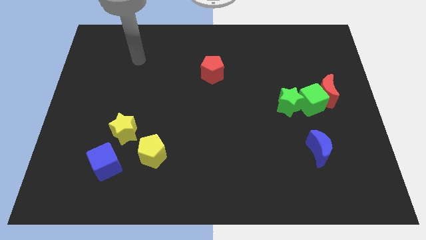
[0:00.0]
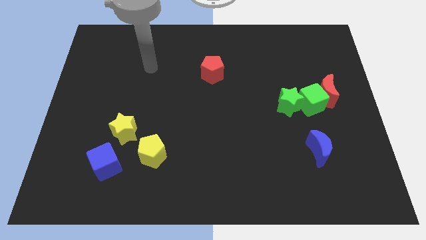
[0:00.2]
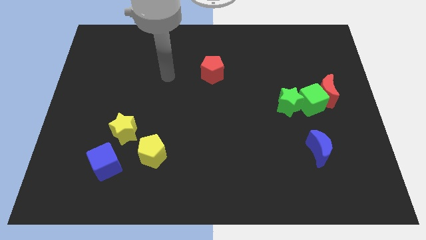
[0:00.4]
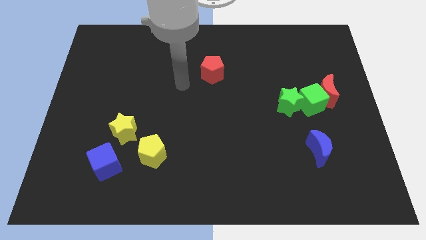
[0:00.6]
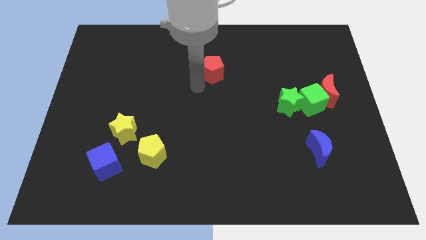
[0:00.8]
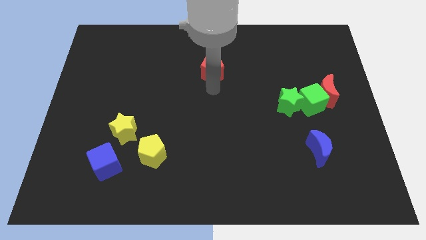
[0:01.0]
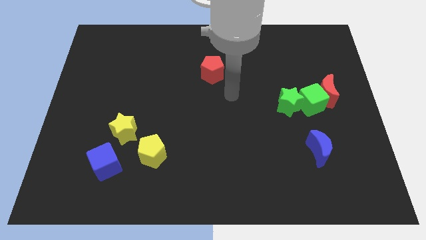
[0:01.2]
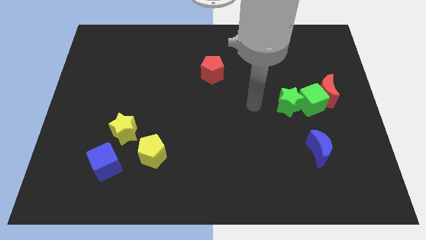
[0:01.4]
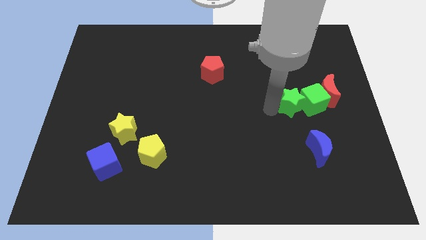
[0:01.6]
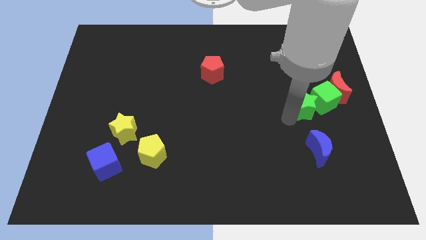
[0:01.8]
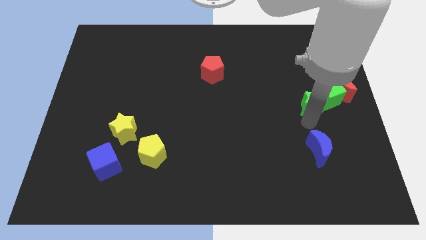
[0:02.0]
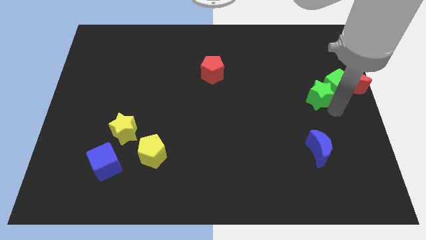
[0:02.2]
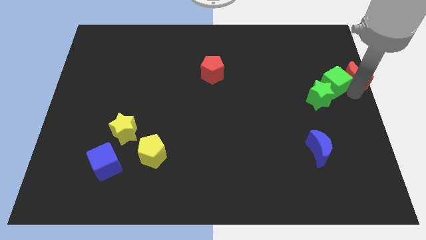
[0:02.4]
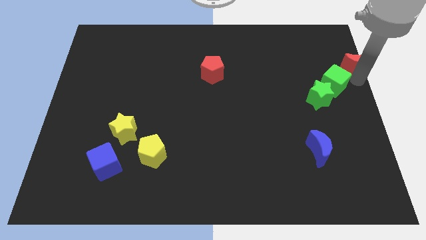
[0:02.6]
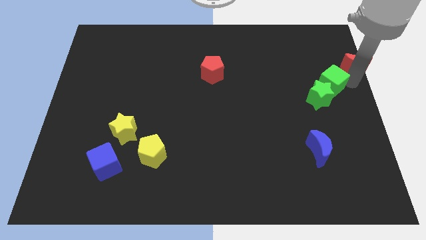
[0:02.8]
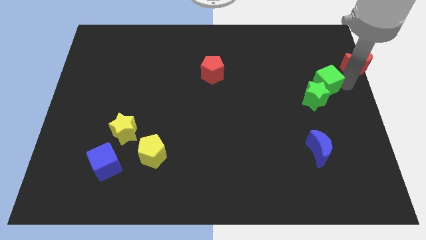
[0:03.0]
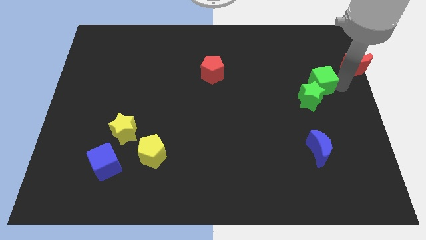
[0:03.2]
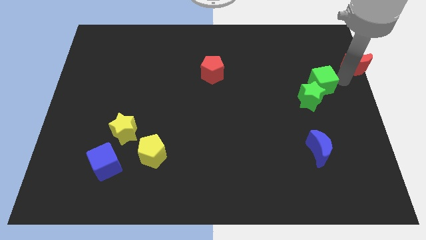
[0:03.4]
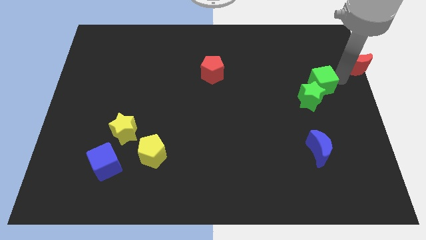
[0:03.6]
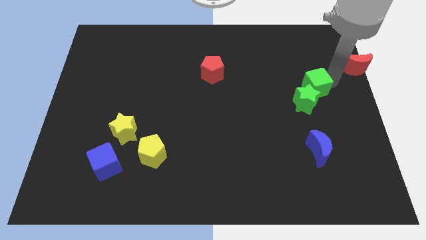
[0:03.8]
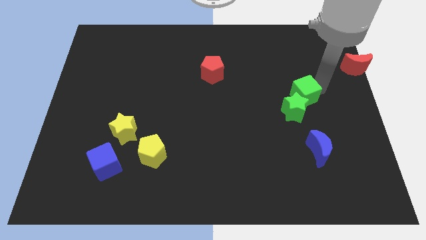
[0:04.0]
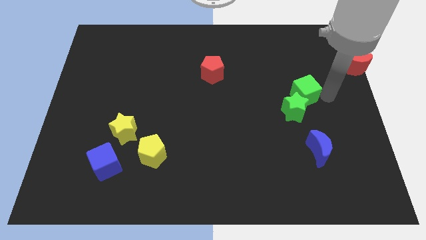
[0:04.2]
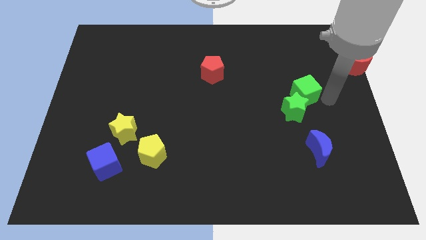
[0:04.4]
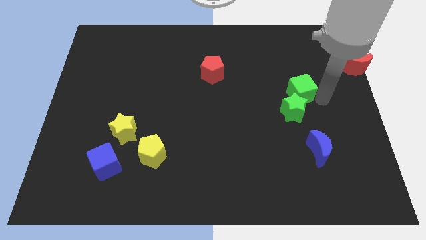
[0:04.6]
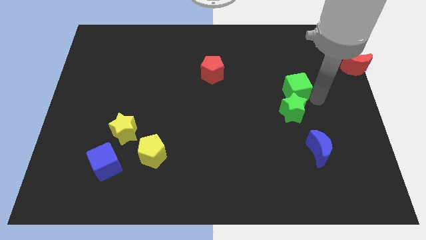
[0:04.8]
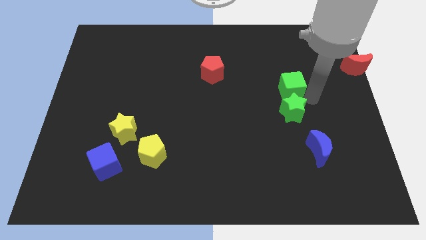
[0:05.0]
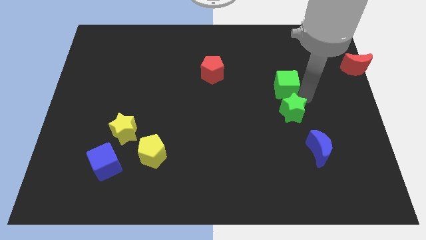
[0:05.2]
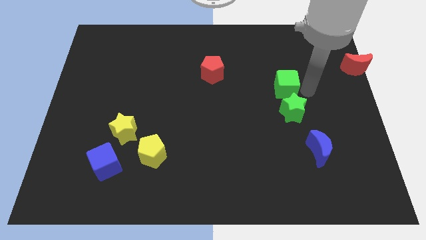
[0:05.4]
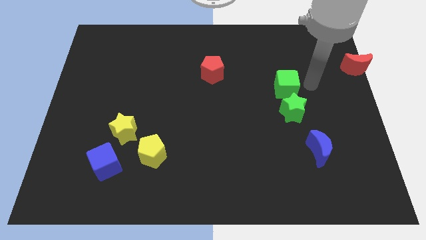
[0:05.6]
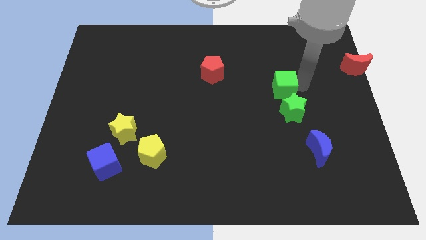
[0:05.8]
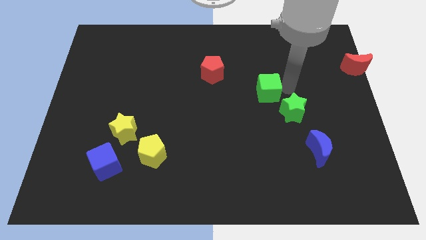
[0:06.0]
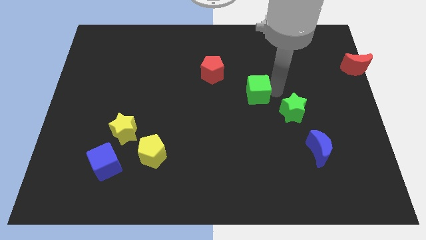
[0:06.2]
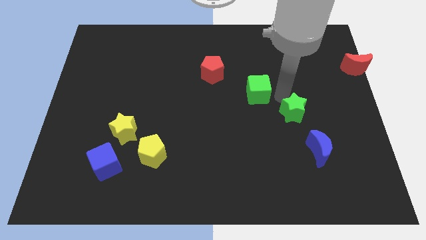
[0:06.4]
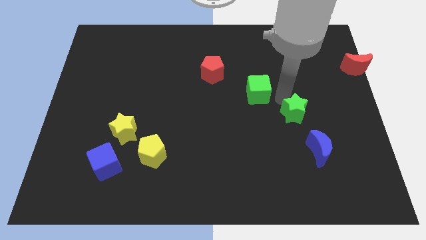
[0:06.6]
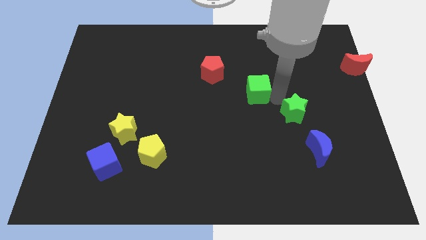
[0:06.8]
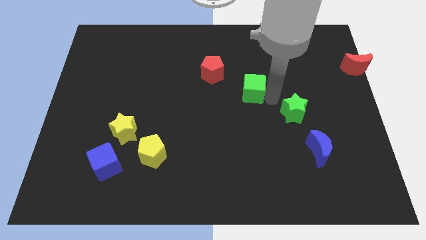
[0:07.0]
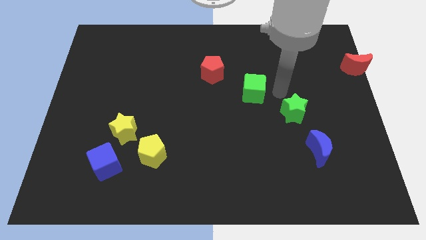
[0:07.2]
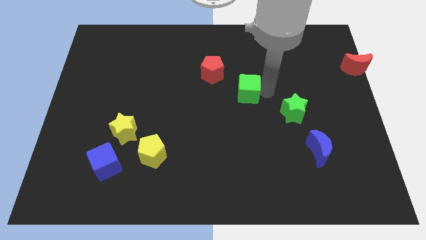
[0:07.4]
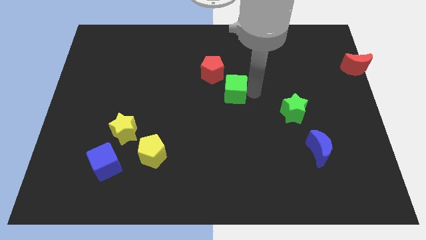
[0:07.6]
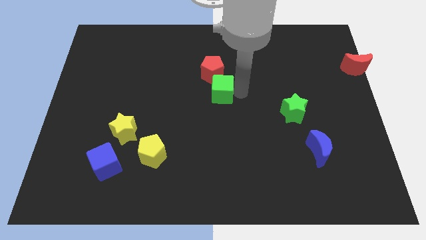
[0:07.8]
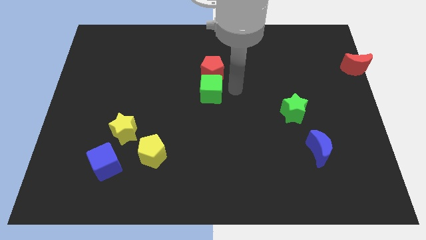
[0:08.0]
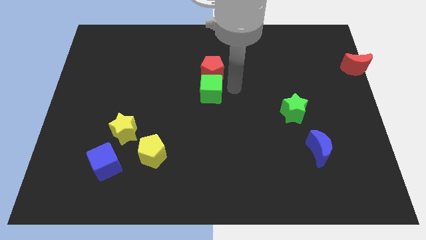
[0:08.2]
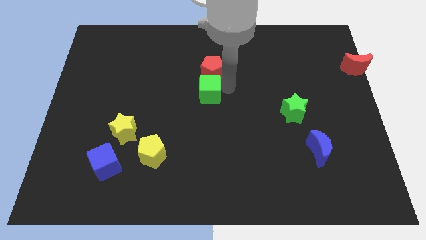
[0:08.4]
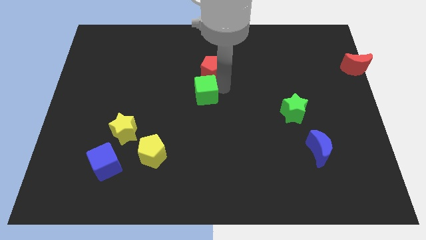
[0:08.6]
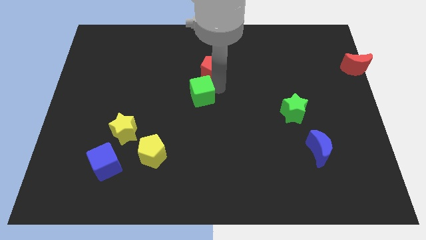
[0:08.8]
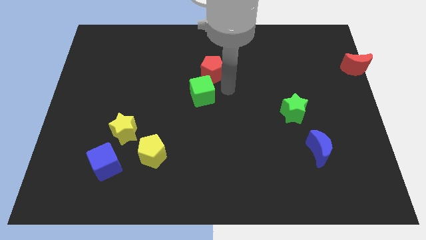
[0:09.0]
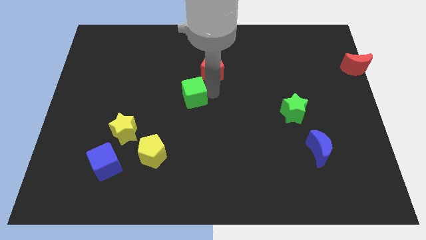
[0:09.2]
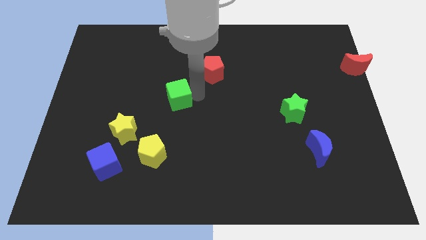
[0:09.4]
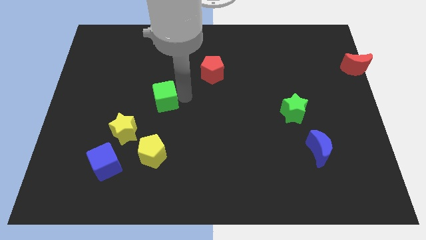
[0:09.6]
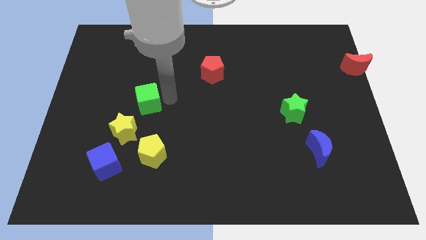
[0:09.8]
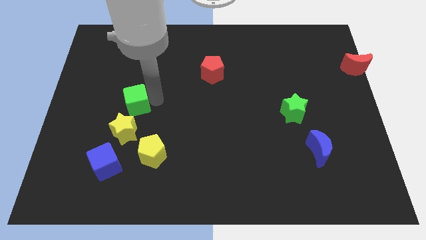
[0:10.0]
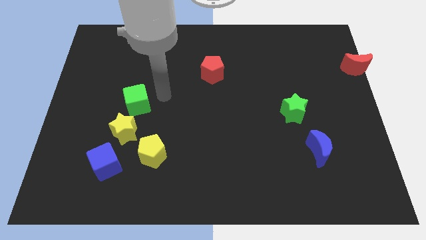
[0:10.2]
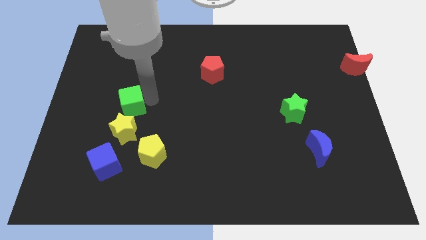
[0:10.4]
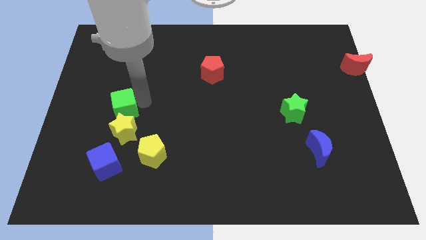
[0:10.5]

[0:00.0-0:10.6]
put the green cube to the top left of the yellow star

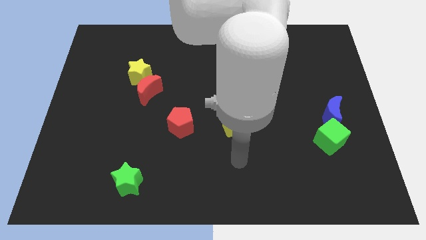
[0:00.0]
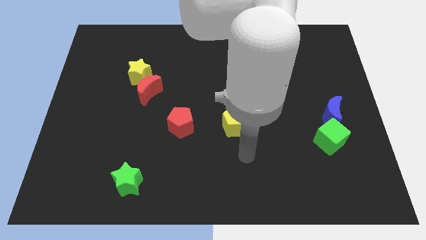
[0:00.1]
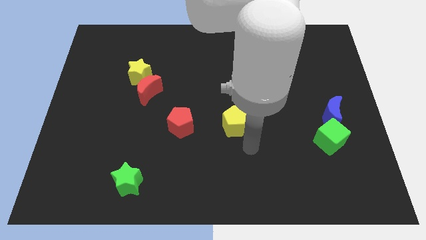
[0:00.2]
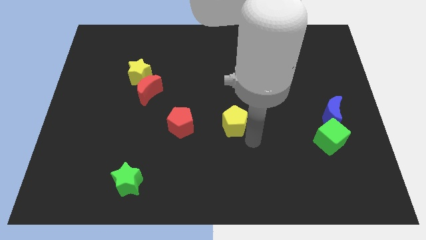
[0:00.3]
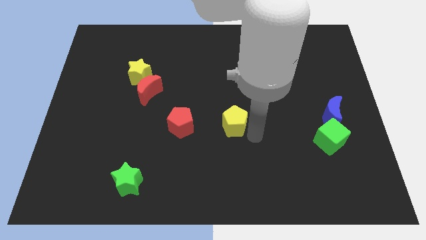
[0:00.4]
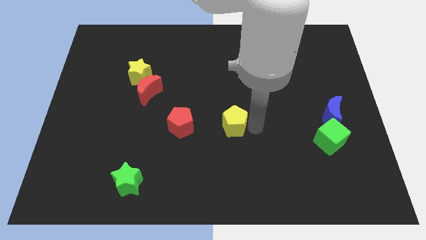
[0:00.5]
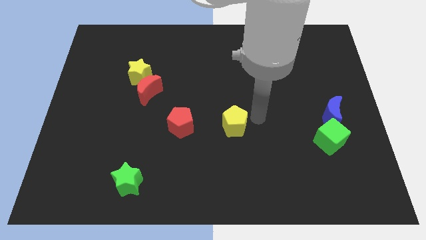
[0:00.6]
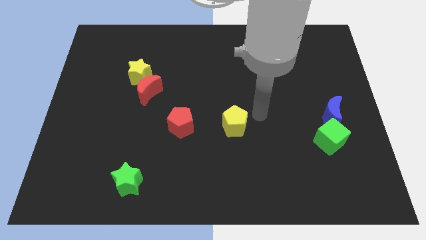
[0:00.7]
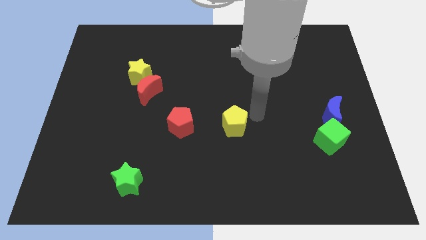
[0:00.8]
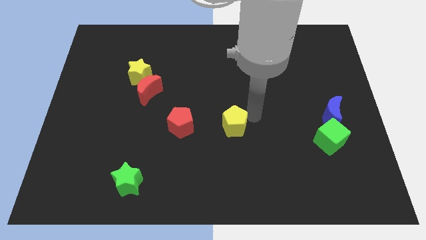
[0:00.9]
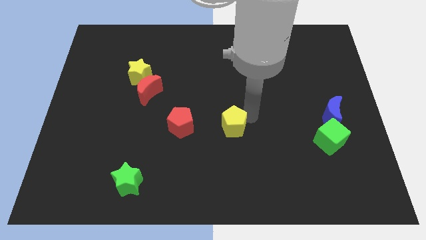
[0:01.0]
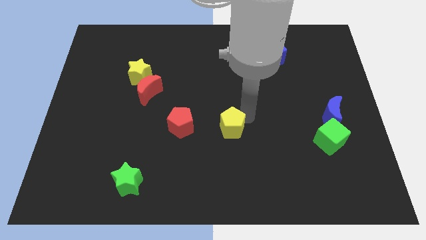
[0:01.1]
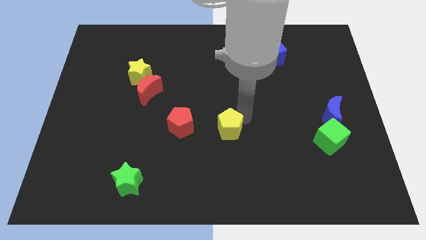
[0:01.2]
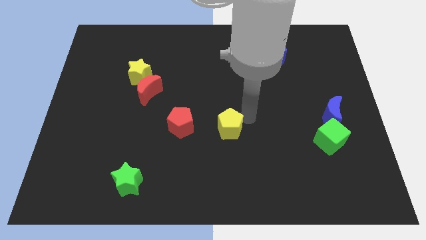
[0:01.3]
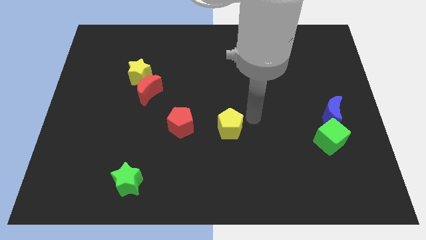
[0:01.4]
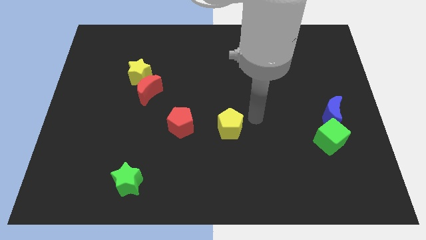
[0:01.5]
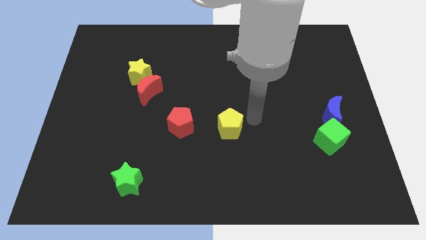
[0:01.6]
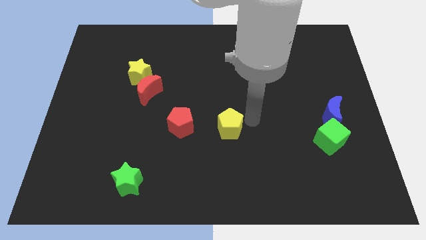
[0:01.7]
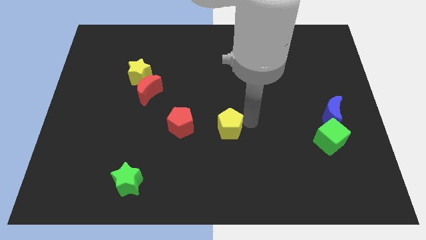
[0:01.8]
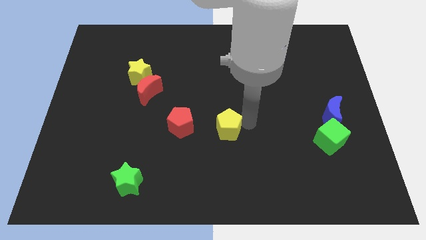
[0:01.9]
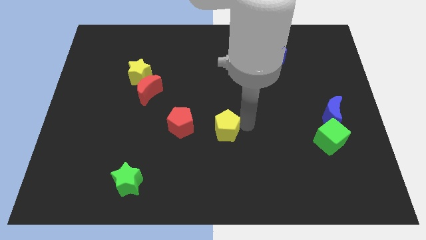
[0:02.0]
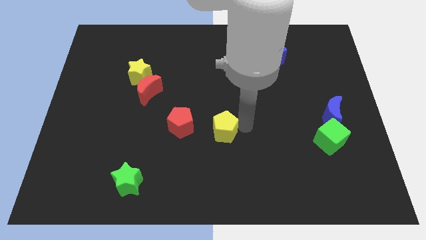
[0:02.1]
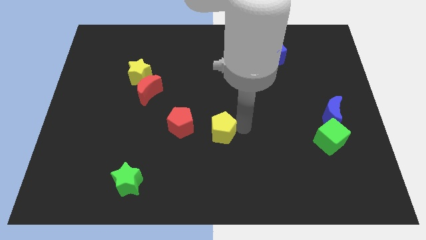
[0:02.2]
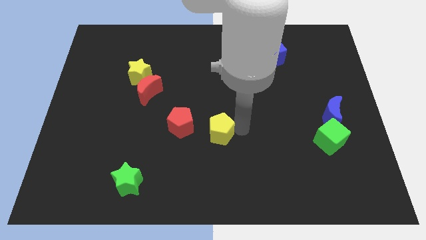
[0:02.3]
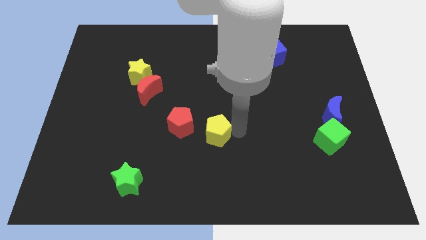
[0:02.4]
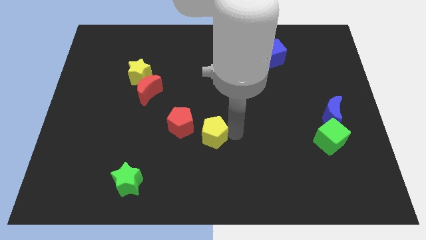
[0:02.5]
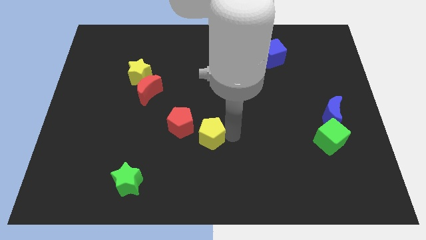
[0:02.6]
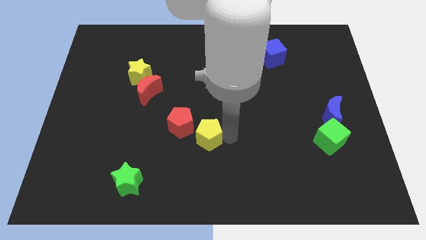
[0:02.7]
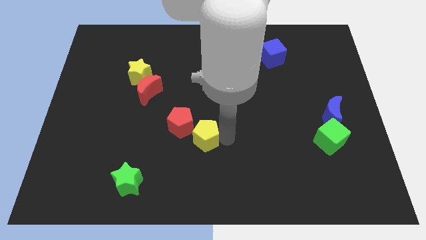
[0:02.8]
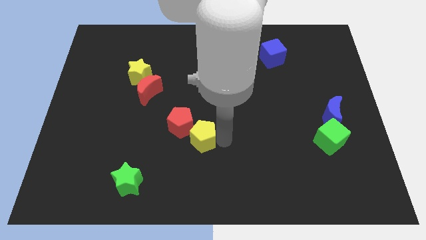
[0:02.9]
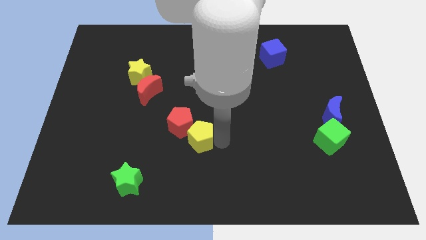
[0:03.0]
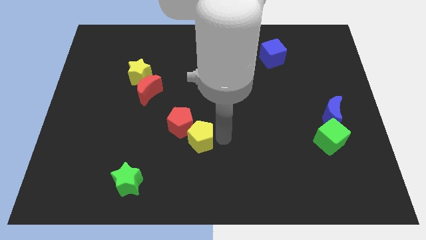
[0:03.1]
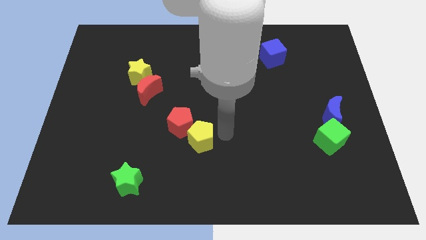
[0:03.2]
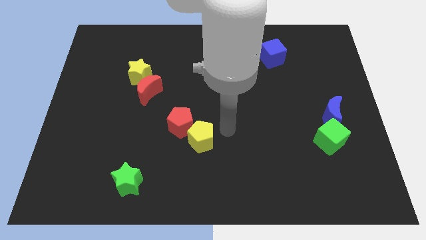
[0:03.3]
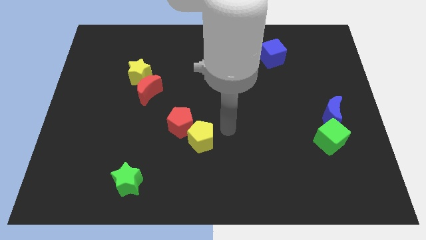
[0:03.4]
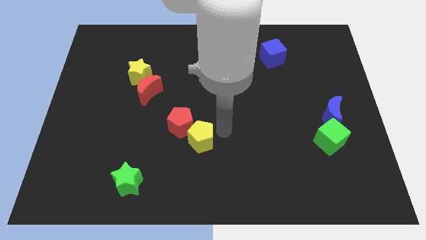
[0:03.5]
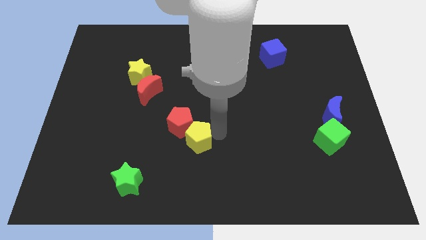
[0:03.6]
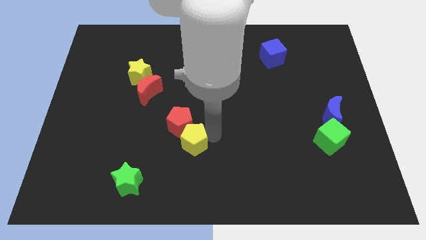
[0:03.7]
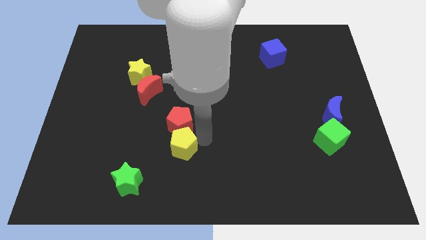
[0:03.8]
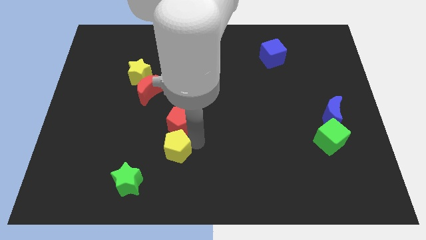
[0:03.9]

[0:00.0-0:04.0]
move the yellow pentagon to the top right of the green star
